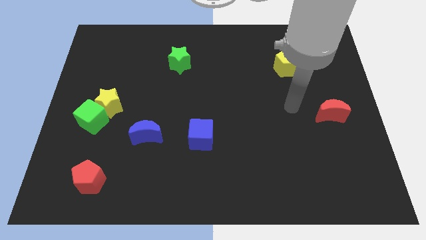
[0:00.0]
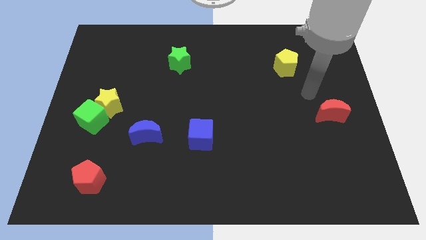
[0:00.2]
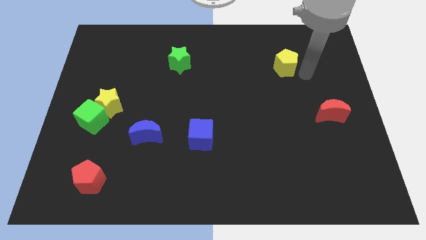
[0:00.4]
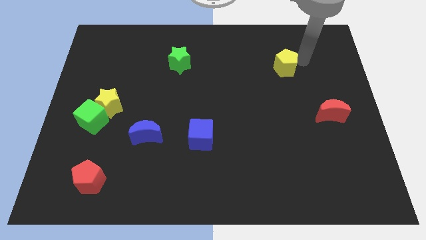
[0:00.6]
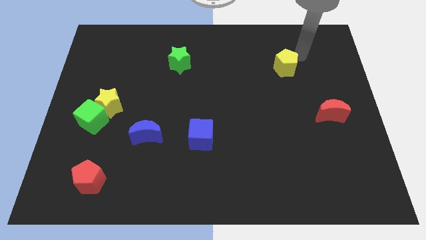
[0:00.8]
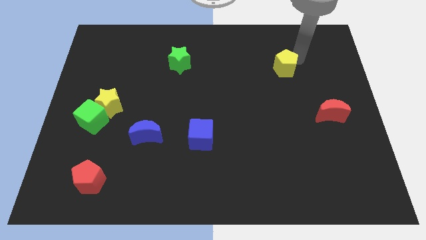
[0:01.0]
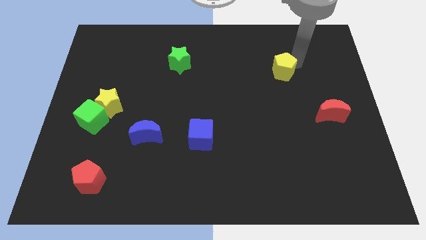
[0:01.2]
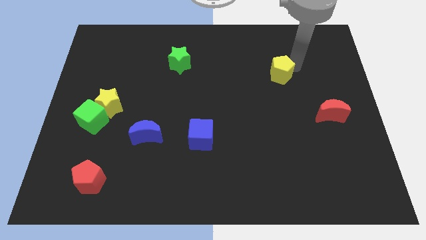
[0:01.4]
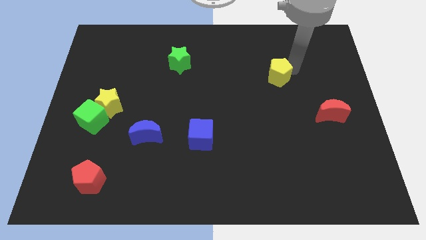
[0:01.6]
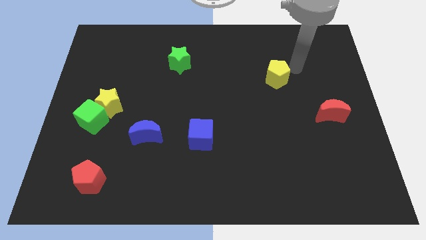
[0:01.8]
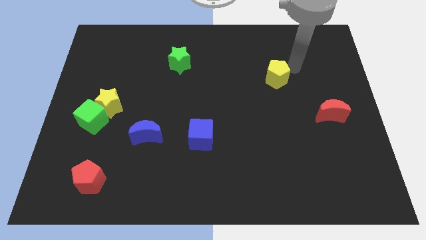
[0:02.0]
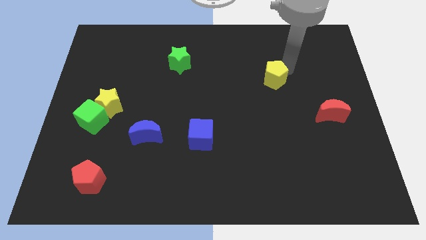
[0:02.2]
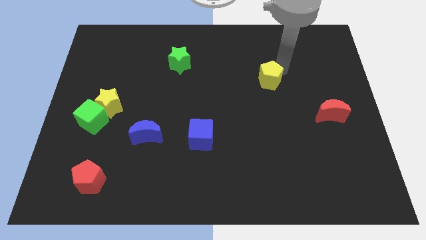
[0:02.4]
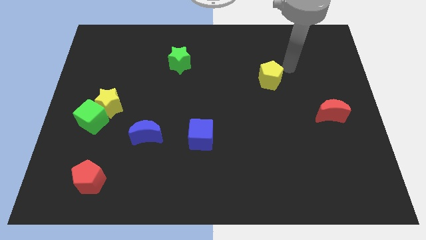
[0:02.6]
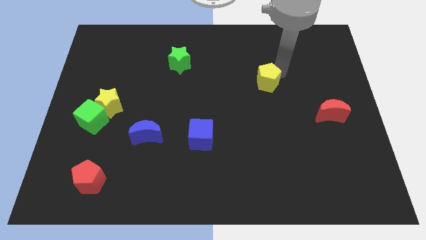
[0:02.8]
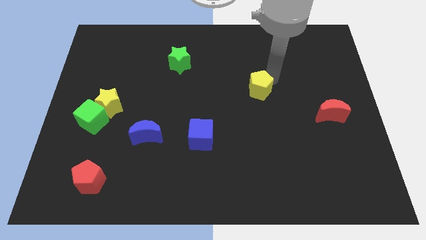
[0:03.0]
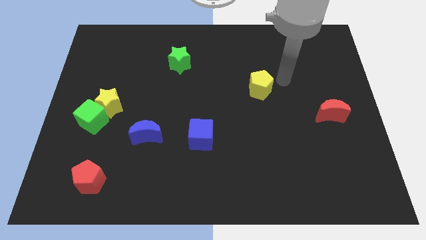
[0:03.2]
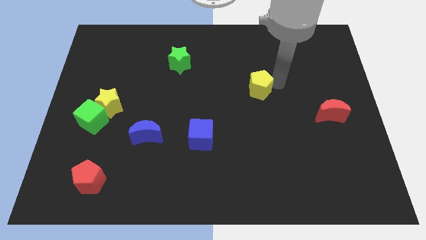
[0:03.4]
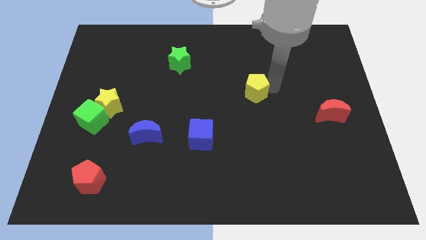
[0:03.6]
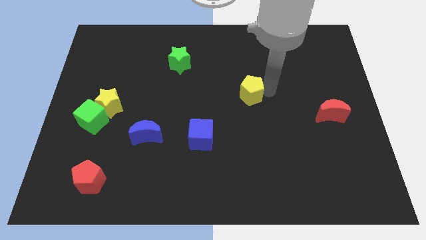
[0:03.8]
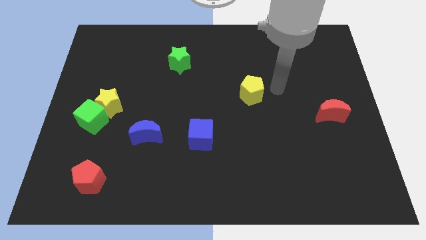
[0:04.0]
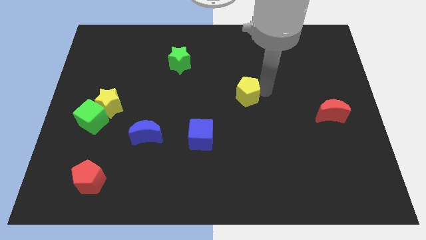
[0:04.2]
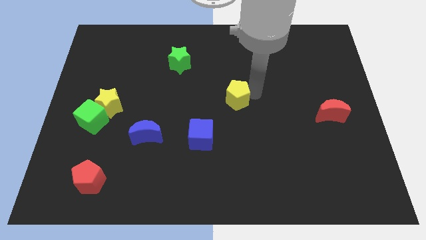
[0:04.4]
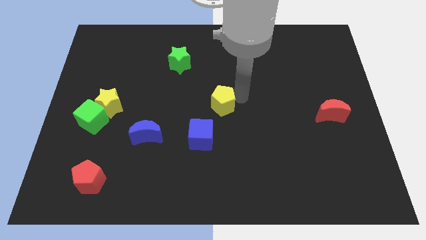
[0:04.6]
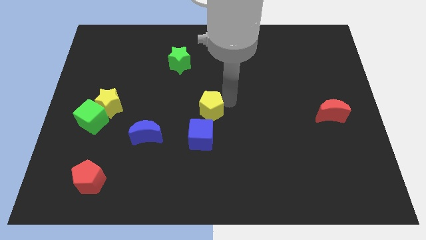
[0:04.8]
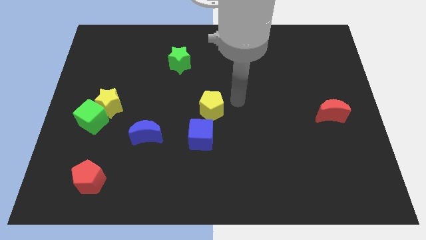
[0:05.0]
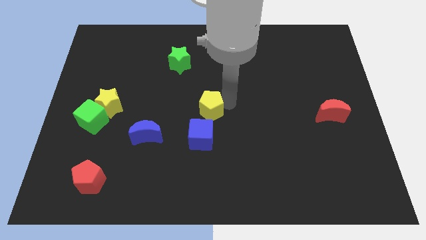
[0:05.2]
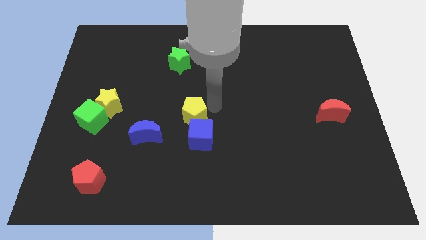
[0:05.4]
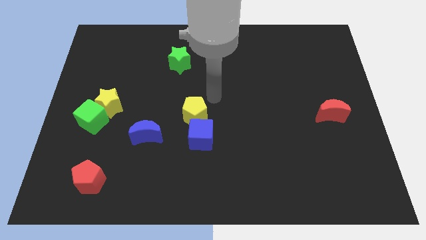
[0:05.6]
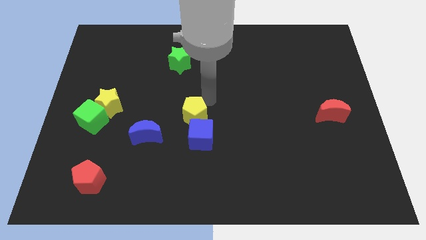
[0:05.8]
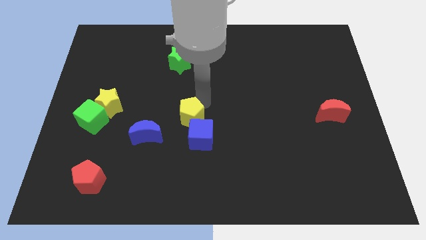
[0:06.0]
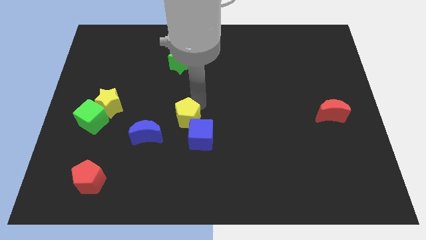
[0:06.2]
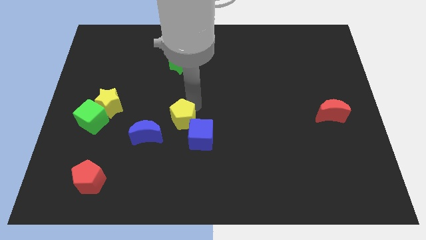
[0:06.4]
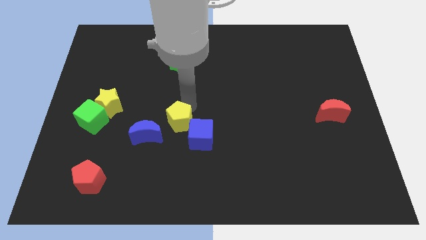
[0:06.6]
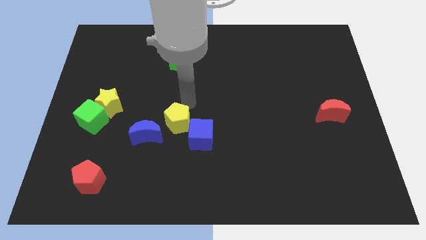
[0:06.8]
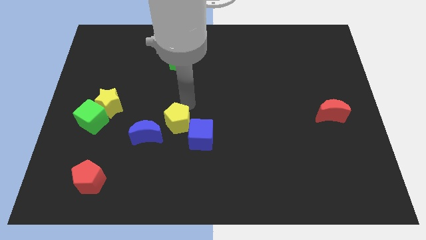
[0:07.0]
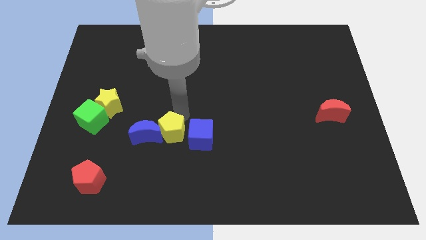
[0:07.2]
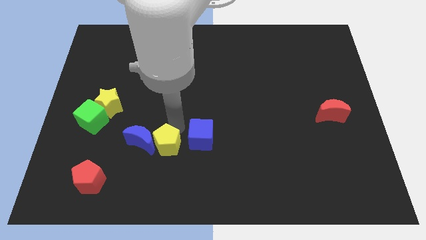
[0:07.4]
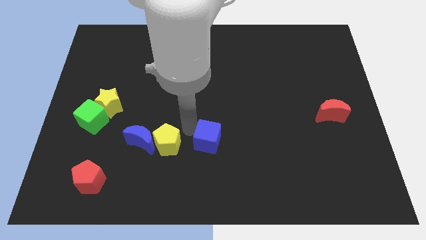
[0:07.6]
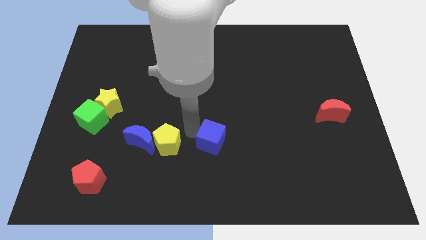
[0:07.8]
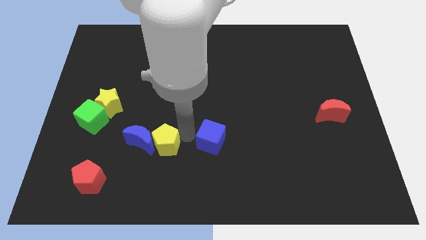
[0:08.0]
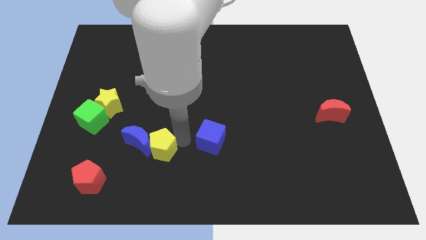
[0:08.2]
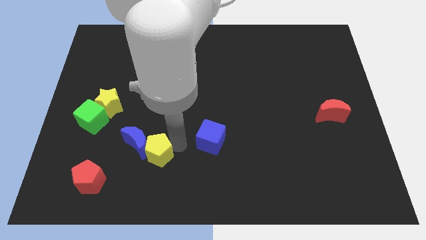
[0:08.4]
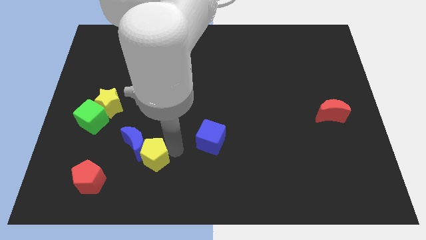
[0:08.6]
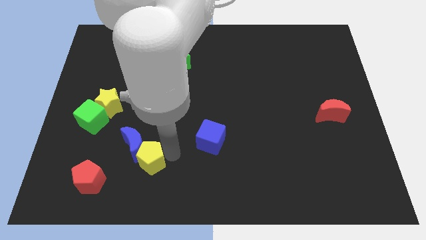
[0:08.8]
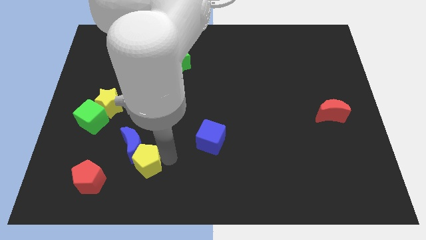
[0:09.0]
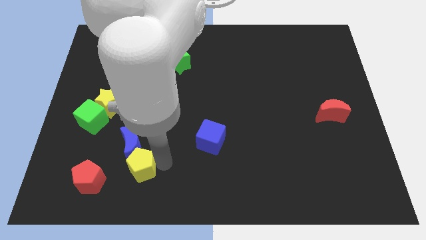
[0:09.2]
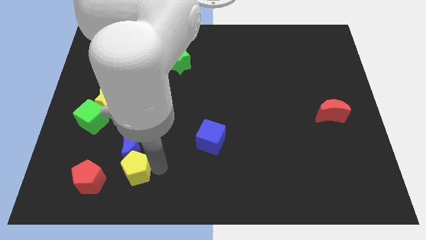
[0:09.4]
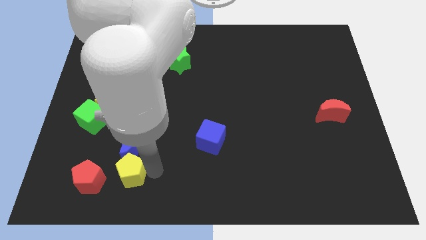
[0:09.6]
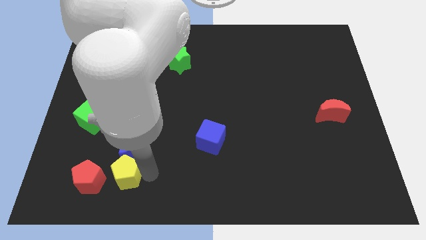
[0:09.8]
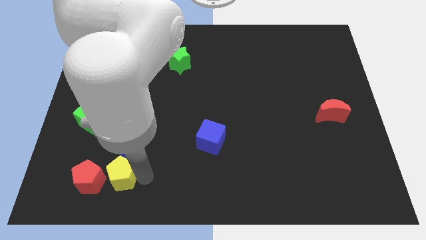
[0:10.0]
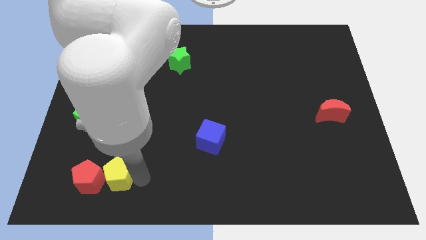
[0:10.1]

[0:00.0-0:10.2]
put the yellow pentagon close to the red pentagon

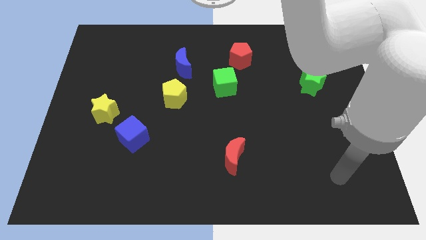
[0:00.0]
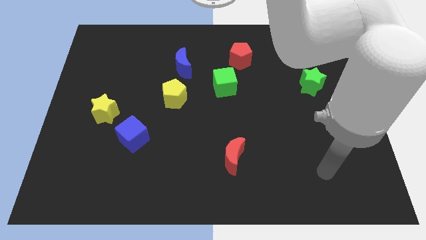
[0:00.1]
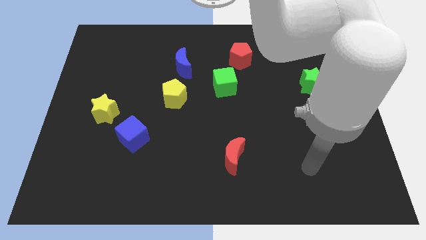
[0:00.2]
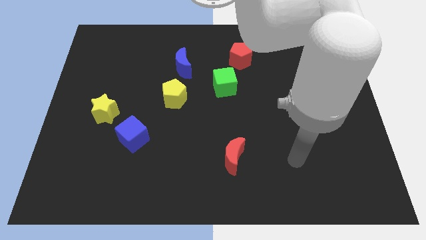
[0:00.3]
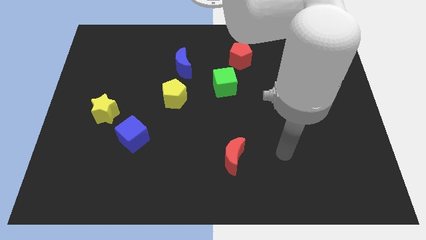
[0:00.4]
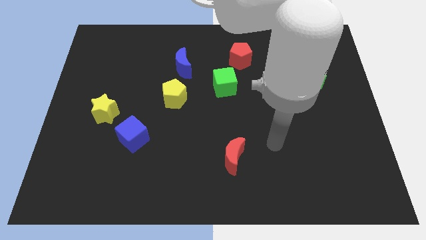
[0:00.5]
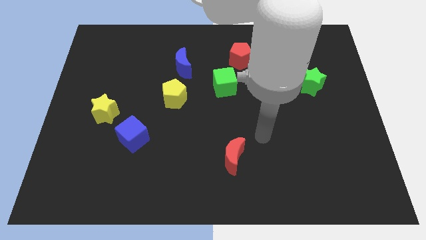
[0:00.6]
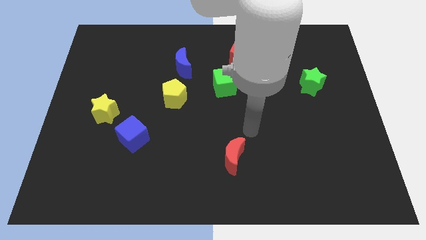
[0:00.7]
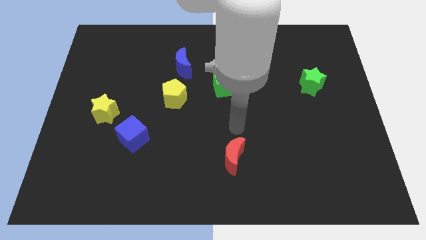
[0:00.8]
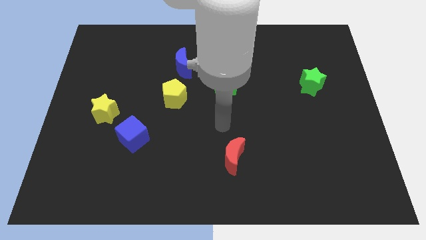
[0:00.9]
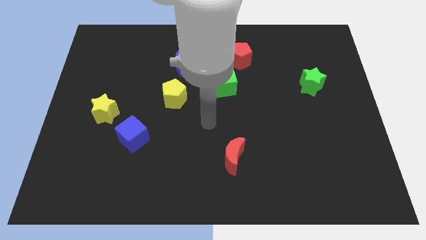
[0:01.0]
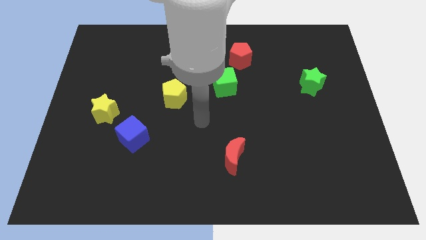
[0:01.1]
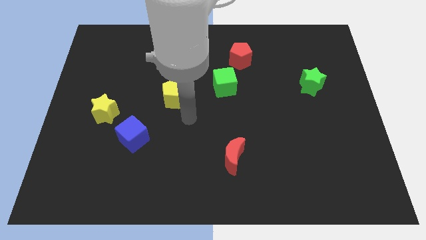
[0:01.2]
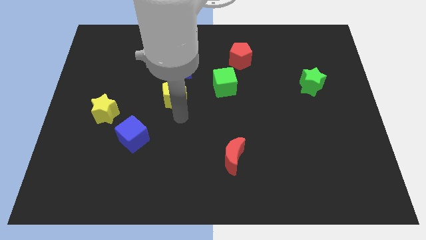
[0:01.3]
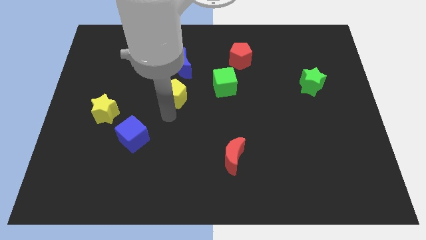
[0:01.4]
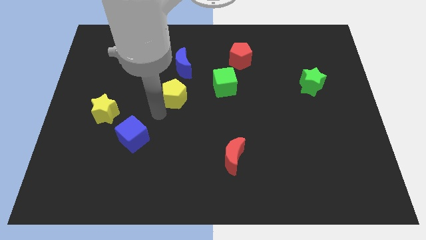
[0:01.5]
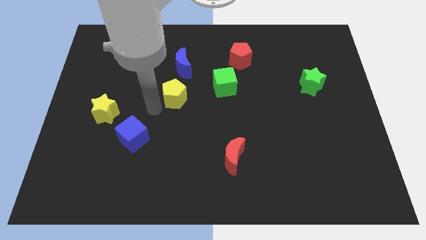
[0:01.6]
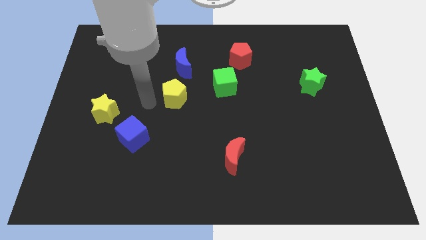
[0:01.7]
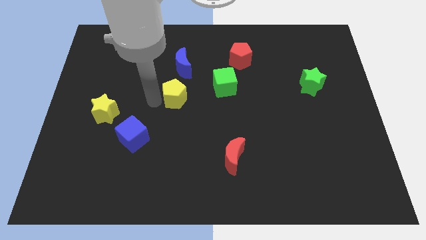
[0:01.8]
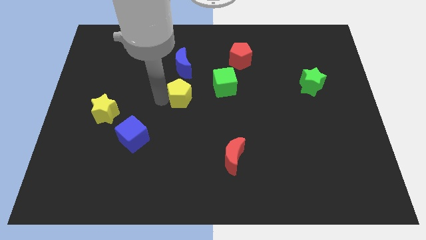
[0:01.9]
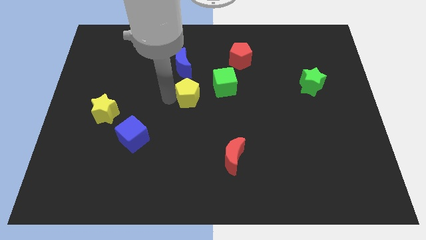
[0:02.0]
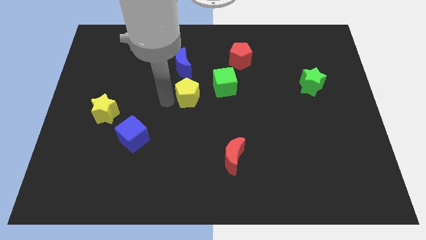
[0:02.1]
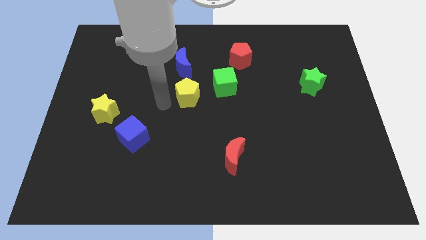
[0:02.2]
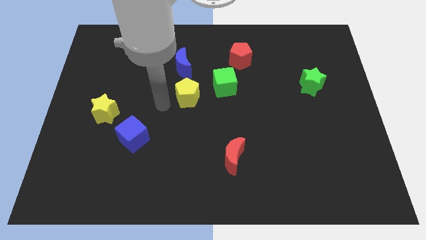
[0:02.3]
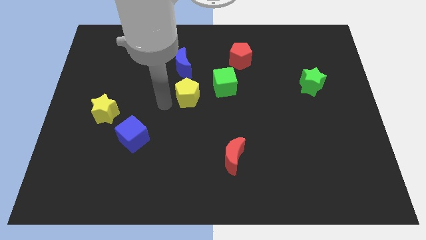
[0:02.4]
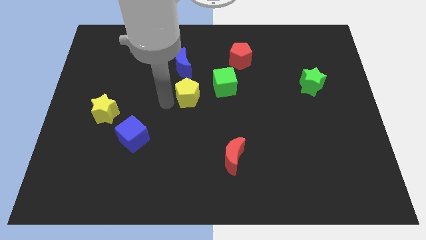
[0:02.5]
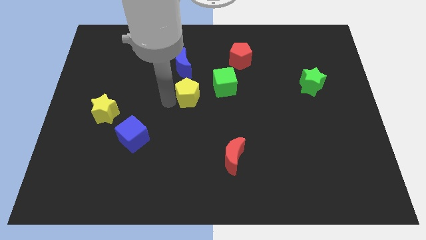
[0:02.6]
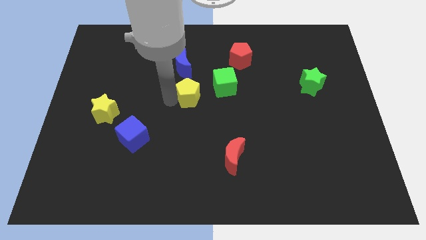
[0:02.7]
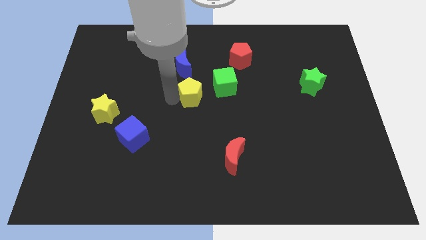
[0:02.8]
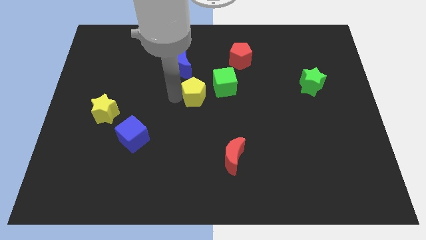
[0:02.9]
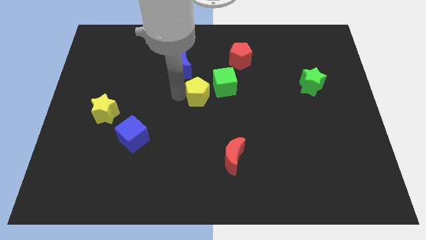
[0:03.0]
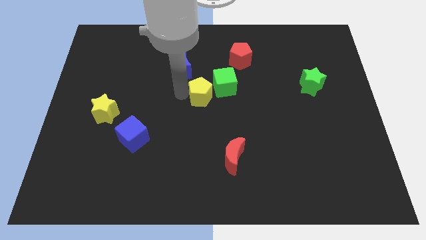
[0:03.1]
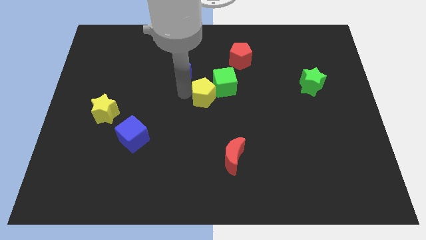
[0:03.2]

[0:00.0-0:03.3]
push the yellow pentagon to the green cube

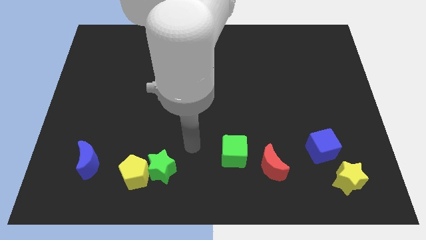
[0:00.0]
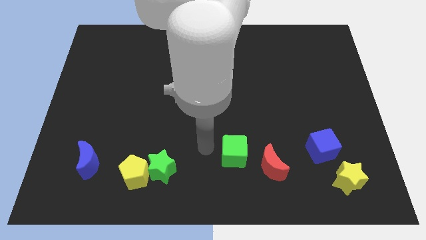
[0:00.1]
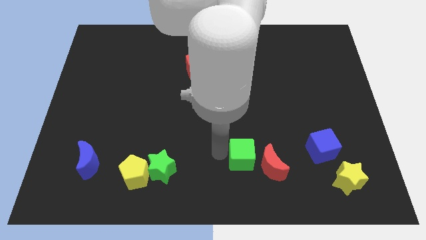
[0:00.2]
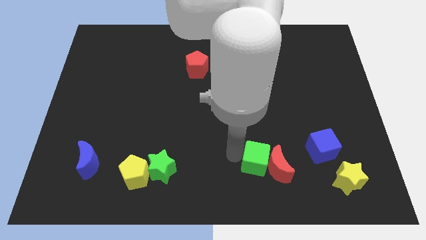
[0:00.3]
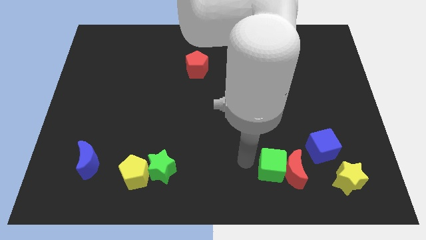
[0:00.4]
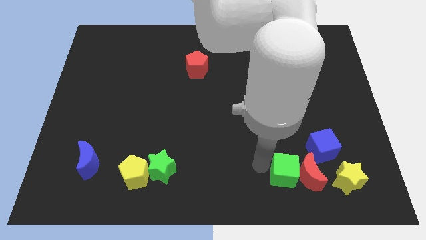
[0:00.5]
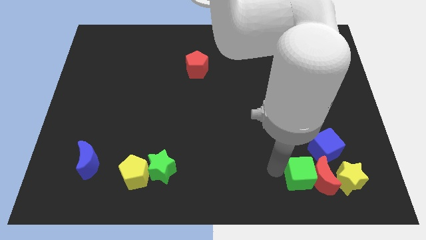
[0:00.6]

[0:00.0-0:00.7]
push the red moon close to the yellow star
